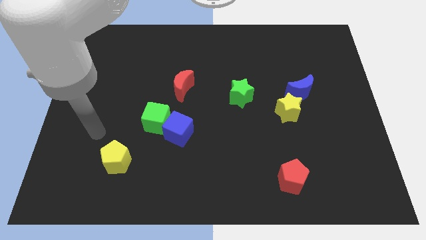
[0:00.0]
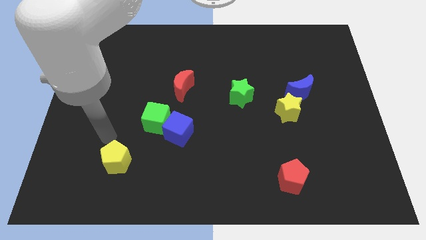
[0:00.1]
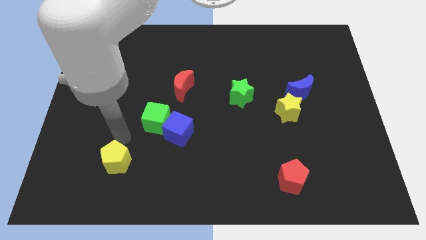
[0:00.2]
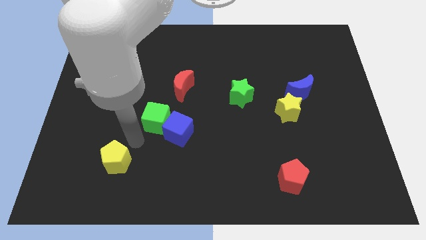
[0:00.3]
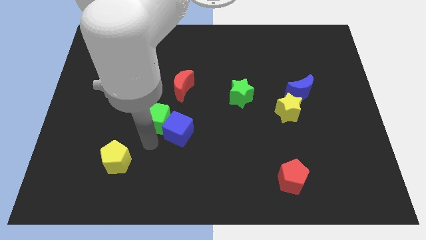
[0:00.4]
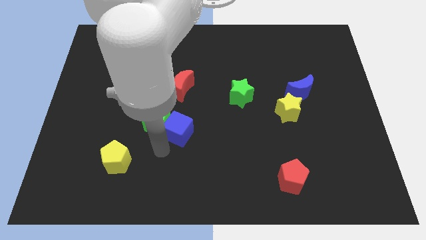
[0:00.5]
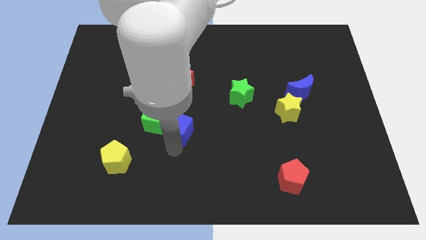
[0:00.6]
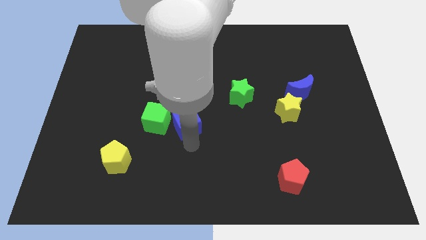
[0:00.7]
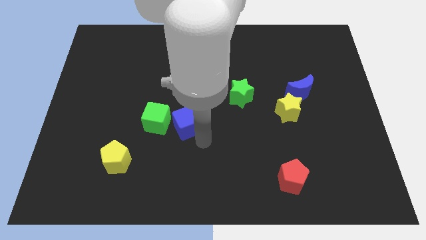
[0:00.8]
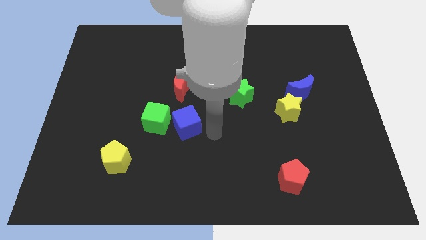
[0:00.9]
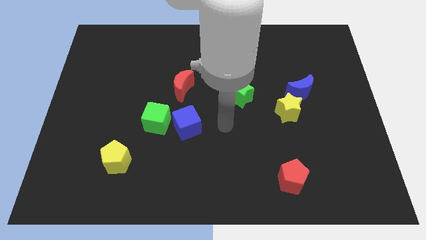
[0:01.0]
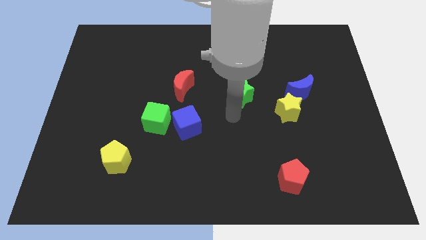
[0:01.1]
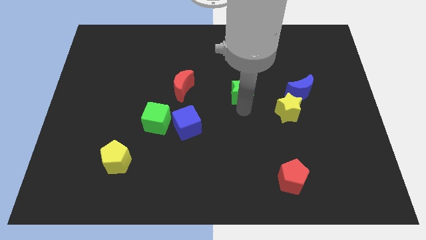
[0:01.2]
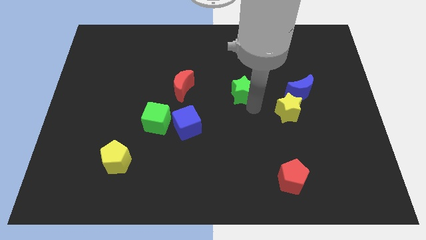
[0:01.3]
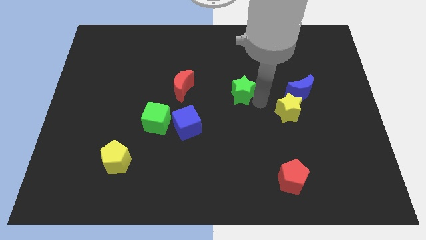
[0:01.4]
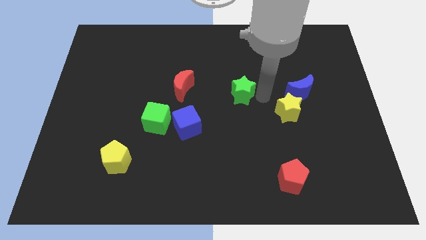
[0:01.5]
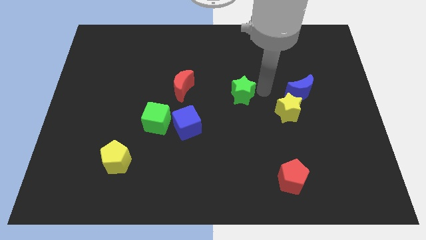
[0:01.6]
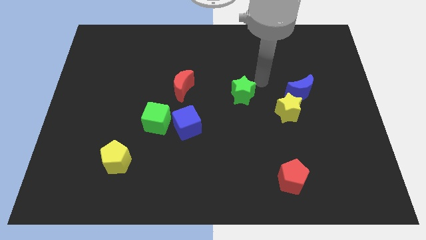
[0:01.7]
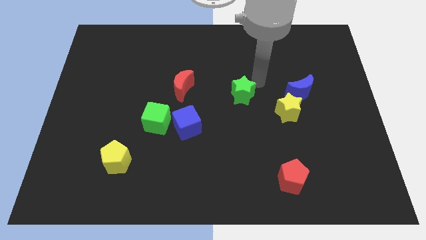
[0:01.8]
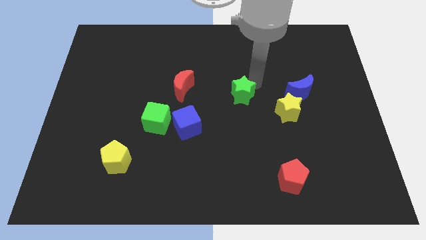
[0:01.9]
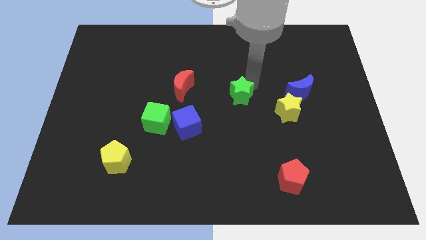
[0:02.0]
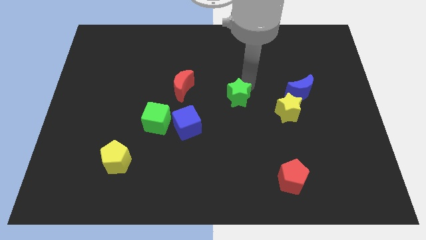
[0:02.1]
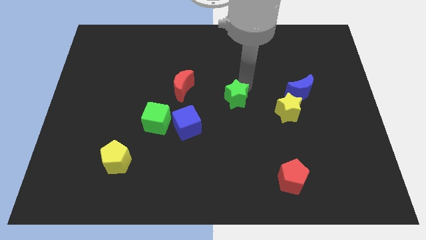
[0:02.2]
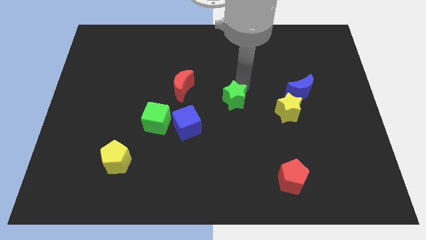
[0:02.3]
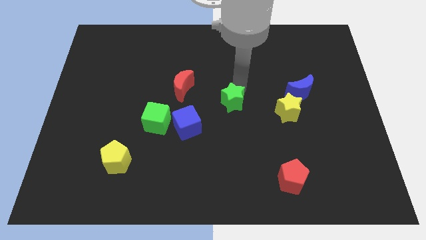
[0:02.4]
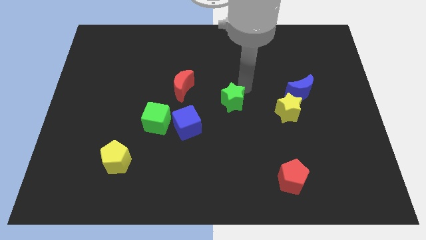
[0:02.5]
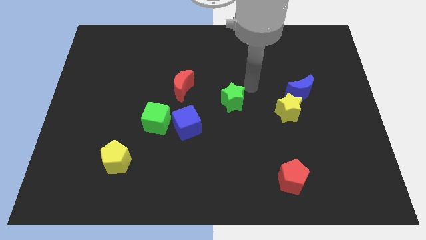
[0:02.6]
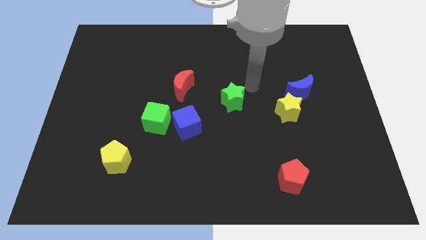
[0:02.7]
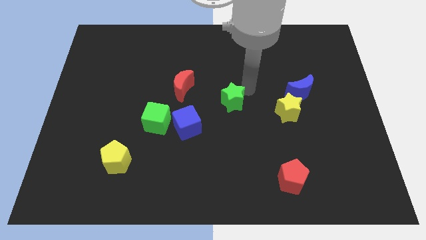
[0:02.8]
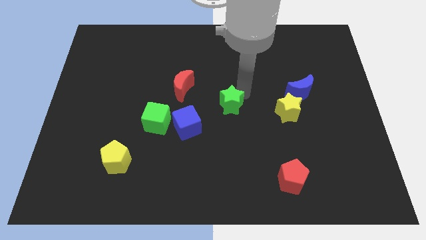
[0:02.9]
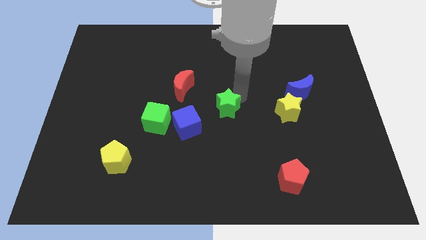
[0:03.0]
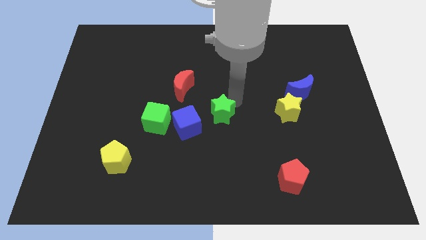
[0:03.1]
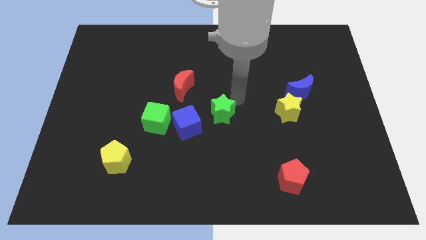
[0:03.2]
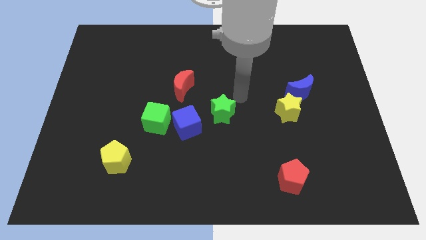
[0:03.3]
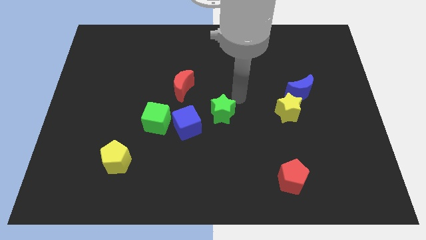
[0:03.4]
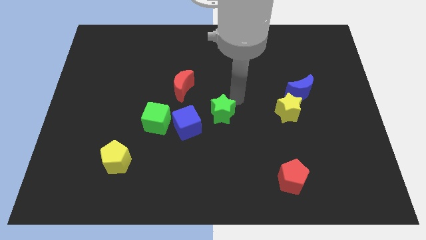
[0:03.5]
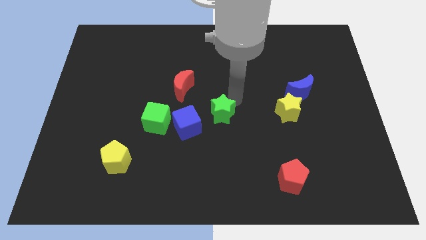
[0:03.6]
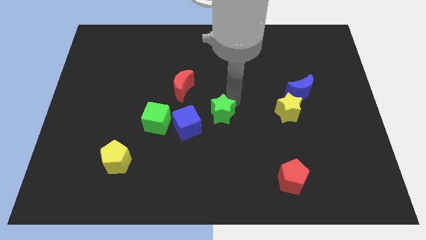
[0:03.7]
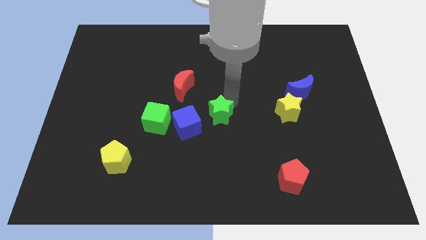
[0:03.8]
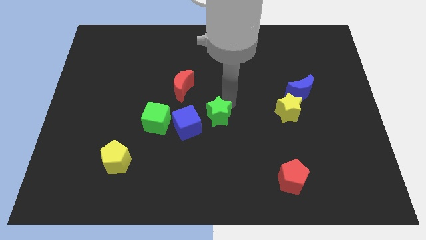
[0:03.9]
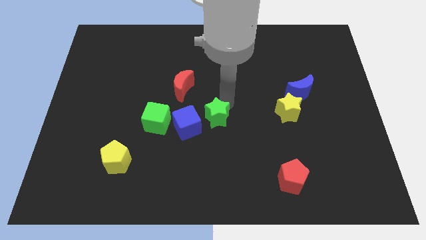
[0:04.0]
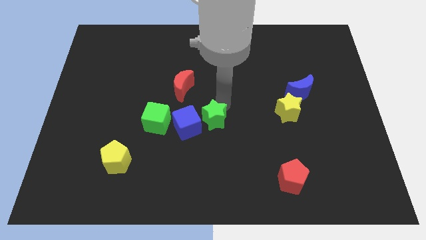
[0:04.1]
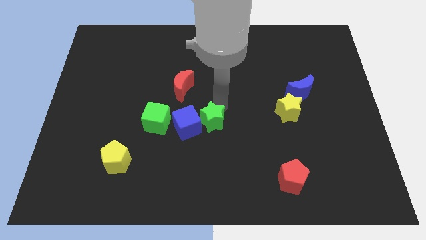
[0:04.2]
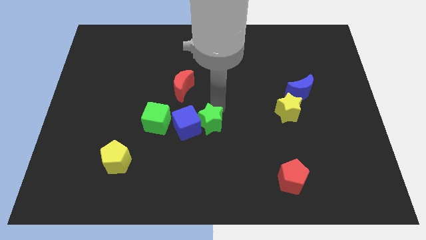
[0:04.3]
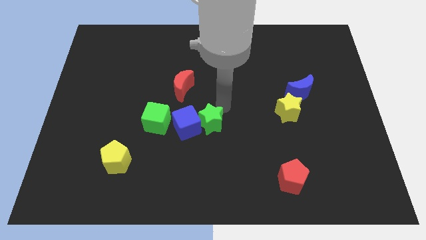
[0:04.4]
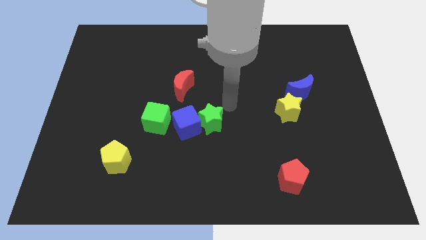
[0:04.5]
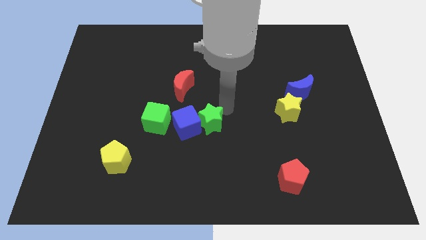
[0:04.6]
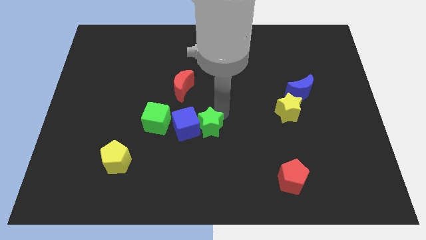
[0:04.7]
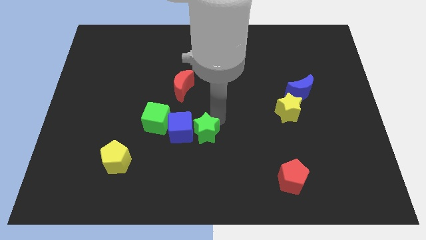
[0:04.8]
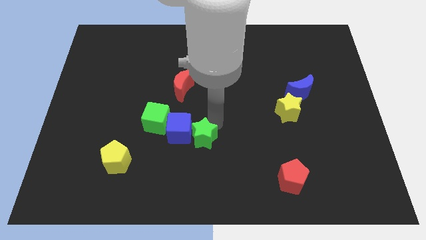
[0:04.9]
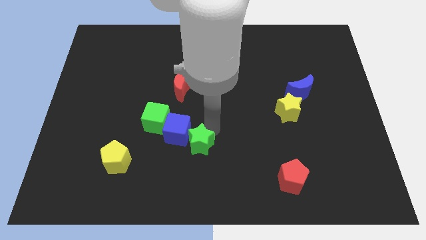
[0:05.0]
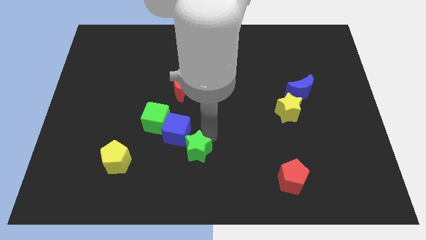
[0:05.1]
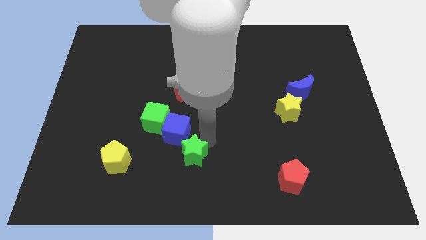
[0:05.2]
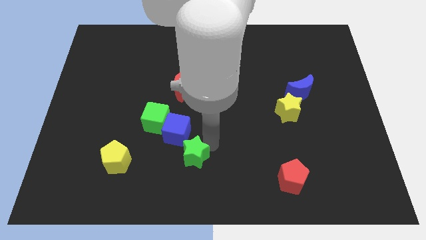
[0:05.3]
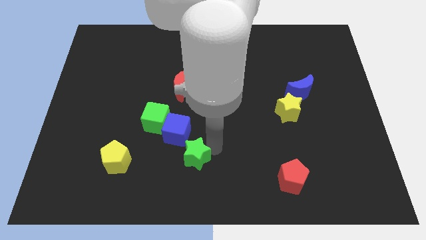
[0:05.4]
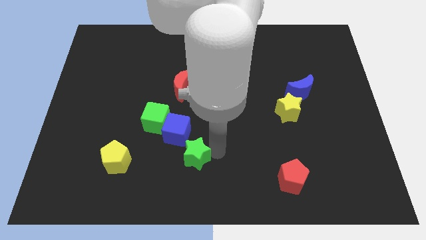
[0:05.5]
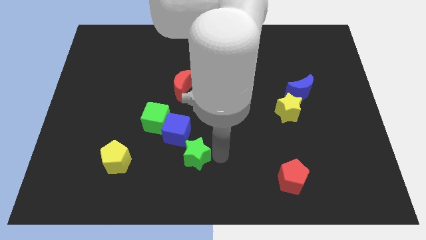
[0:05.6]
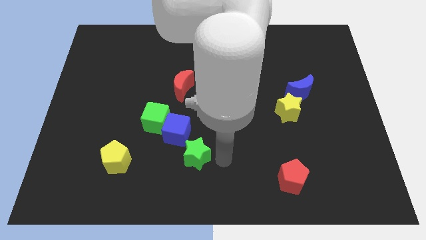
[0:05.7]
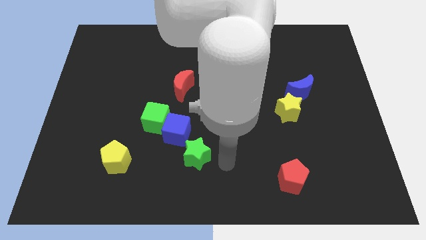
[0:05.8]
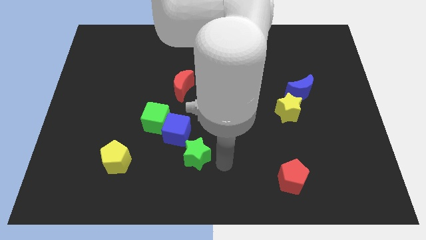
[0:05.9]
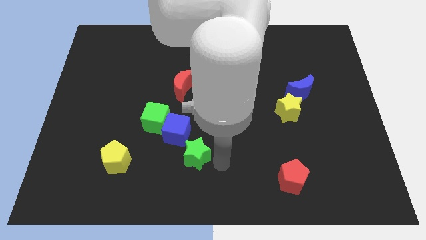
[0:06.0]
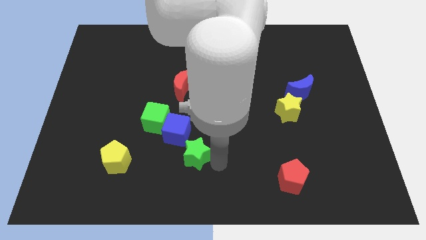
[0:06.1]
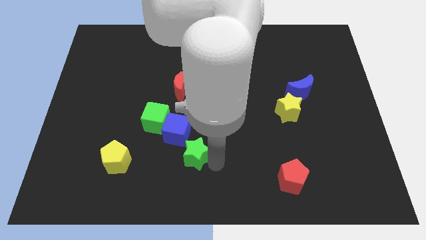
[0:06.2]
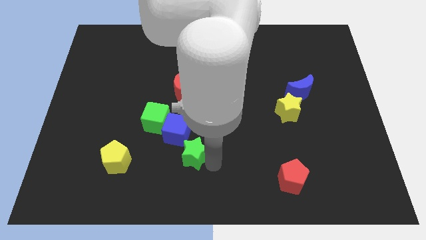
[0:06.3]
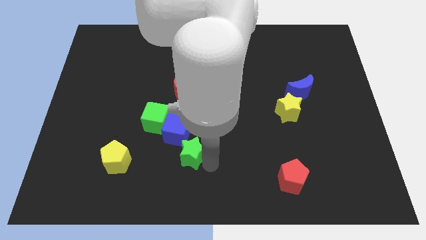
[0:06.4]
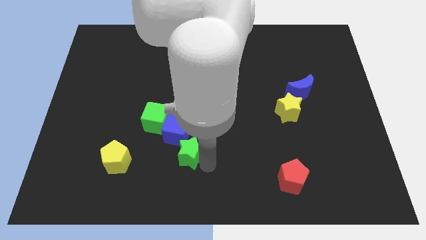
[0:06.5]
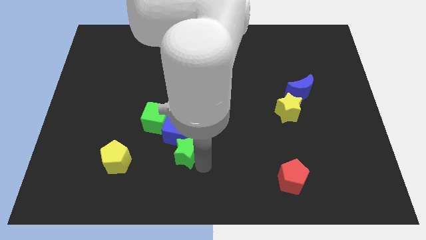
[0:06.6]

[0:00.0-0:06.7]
slide the green star downwards and to the left

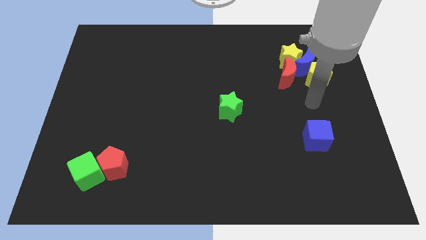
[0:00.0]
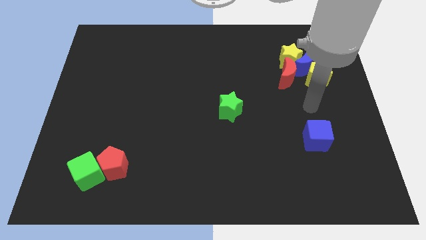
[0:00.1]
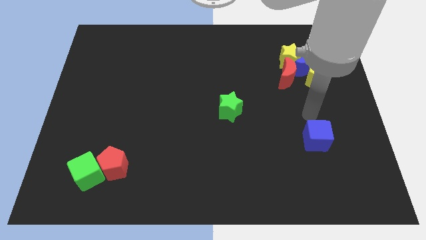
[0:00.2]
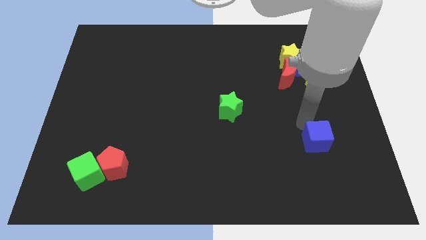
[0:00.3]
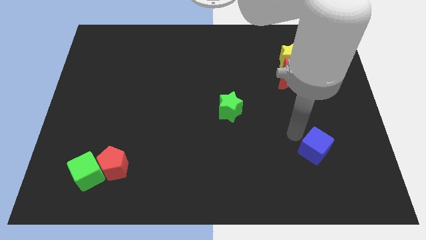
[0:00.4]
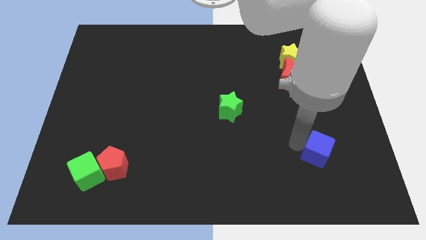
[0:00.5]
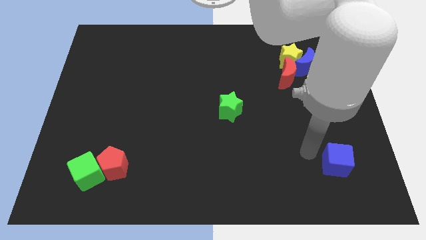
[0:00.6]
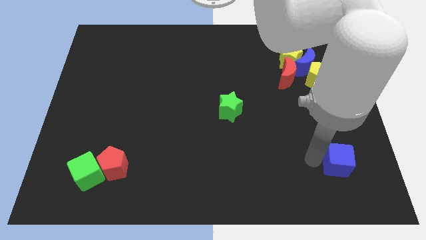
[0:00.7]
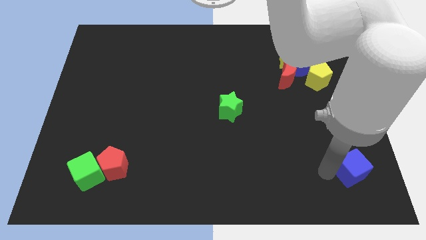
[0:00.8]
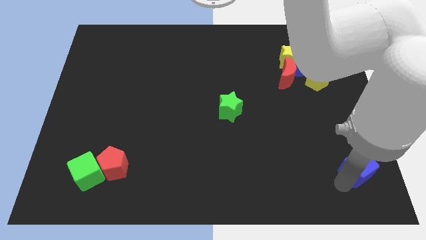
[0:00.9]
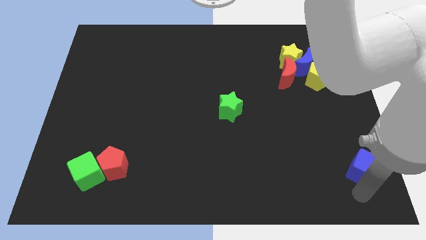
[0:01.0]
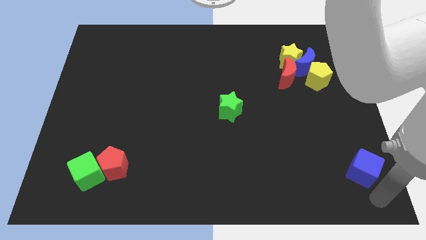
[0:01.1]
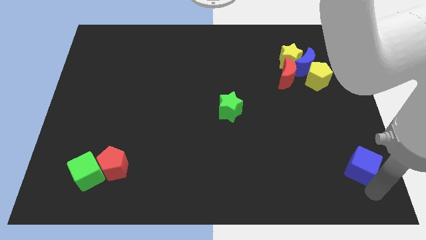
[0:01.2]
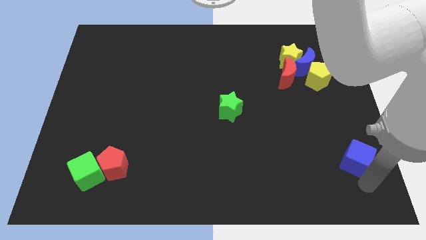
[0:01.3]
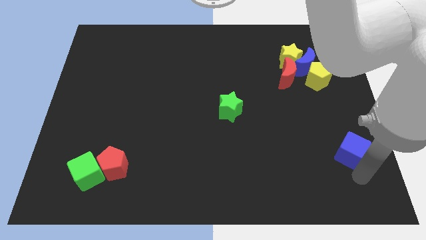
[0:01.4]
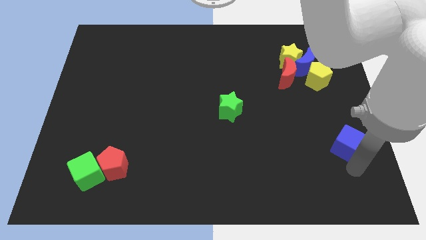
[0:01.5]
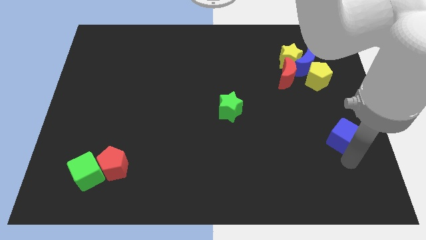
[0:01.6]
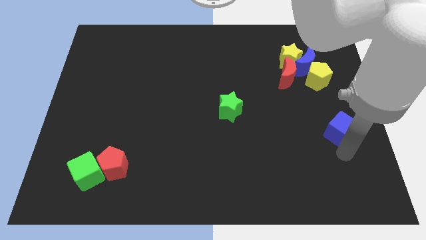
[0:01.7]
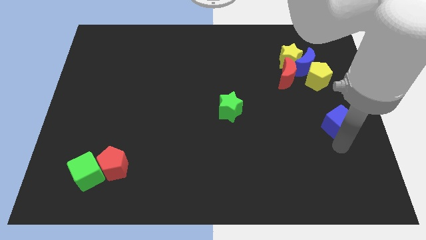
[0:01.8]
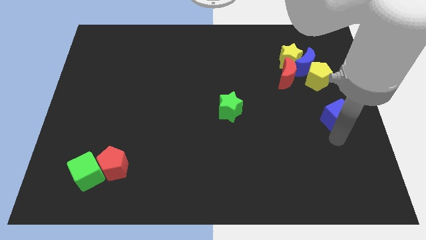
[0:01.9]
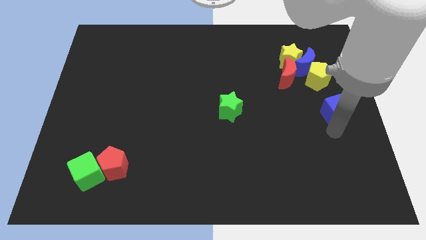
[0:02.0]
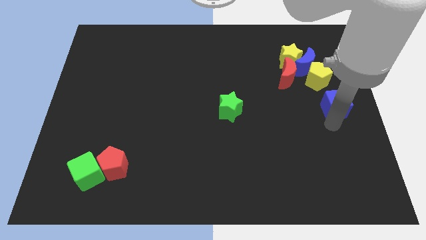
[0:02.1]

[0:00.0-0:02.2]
move the blue cube up somewhat
